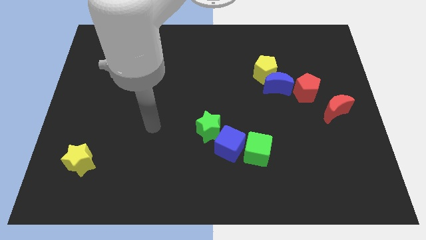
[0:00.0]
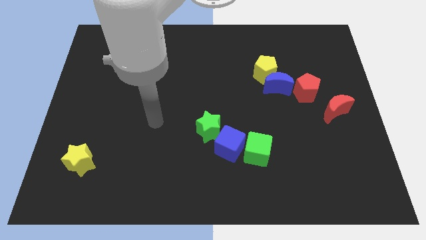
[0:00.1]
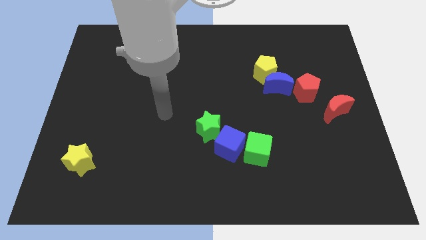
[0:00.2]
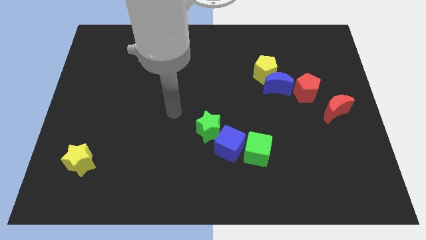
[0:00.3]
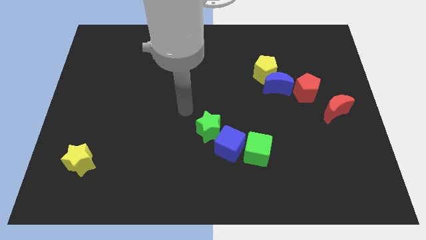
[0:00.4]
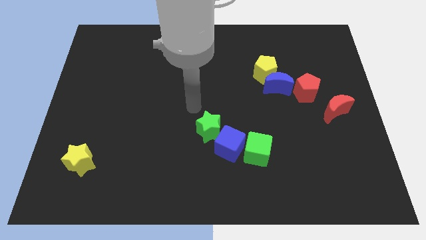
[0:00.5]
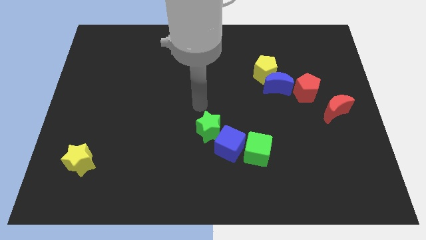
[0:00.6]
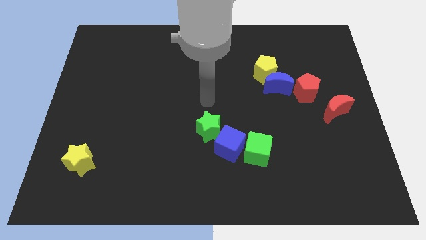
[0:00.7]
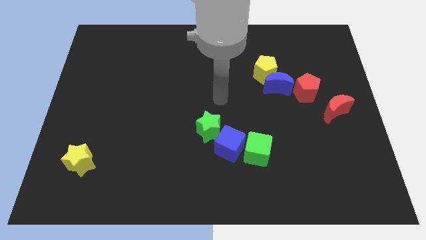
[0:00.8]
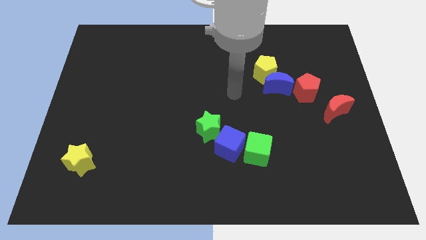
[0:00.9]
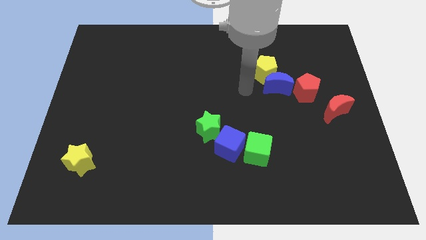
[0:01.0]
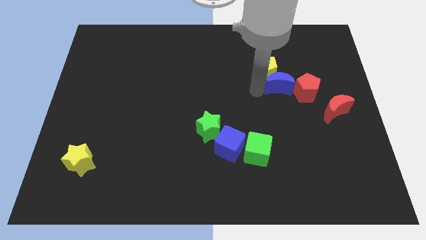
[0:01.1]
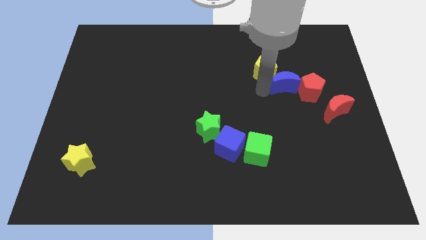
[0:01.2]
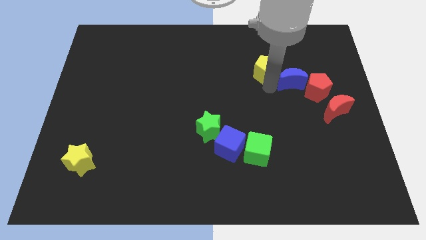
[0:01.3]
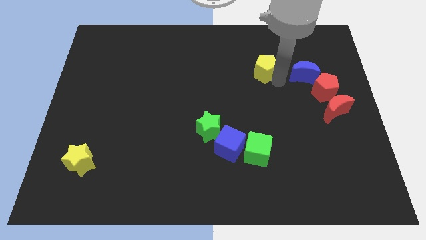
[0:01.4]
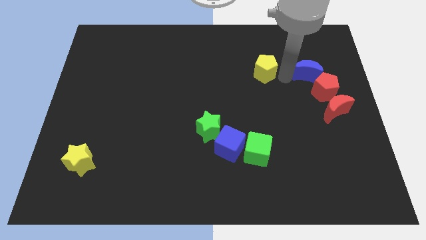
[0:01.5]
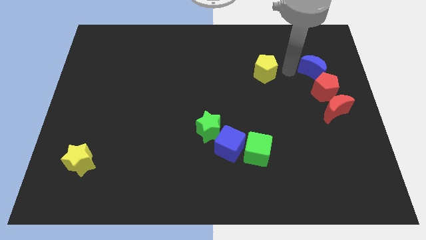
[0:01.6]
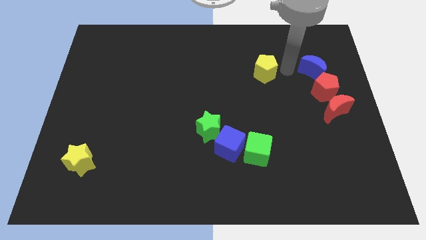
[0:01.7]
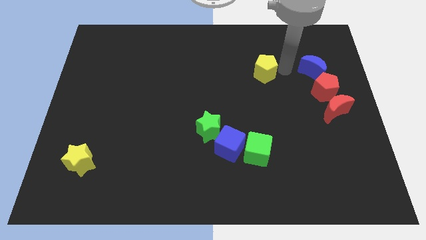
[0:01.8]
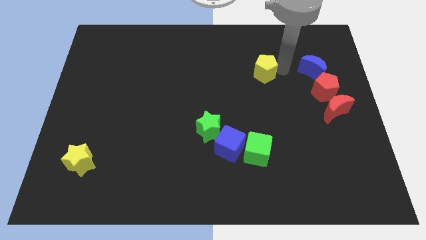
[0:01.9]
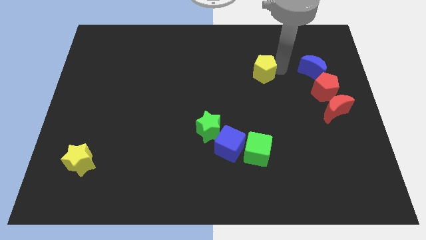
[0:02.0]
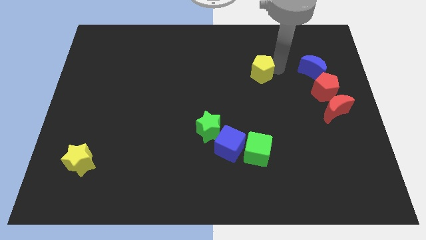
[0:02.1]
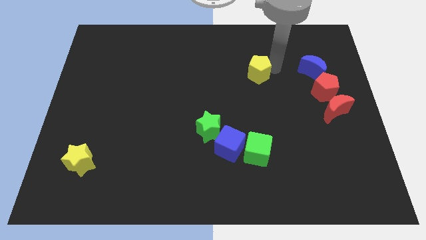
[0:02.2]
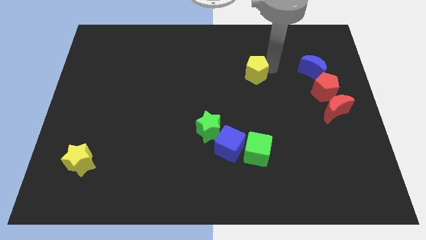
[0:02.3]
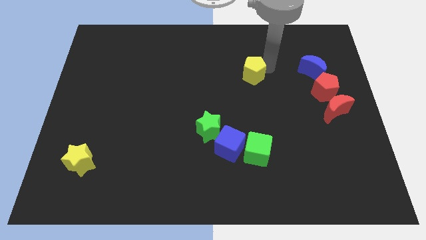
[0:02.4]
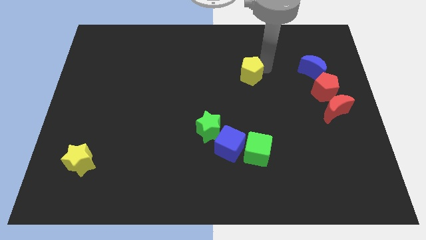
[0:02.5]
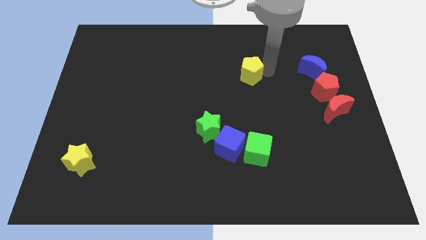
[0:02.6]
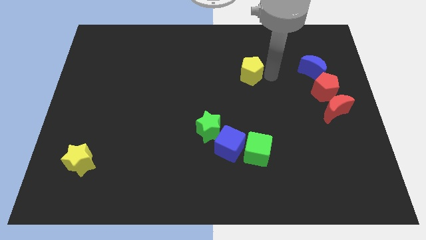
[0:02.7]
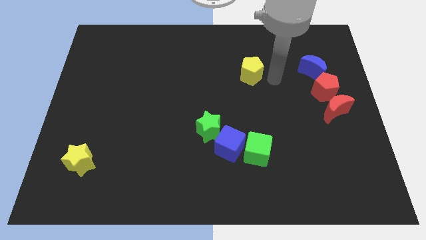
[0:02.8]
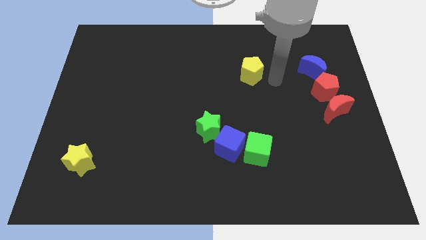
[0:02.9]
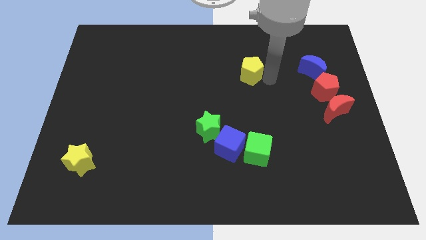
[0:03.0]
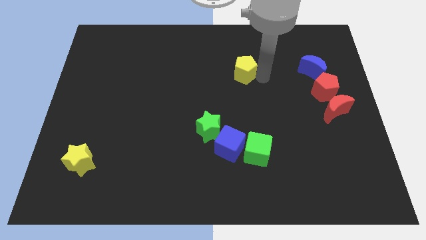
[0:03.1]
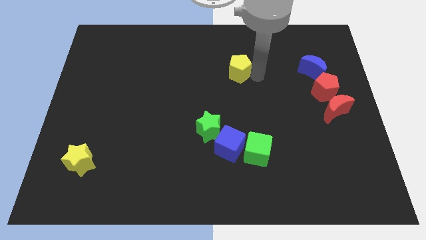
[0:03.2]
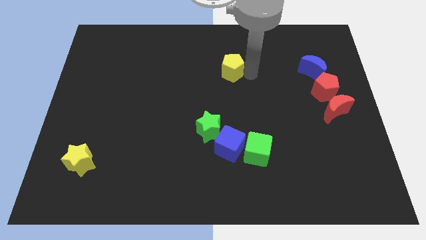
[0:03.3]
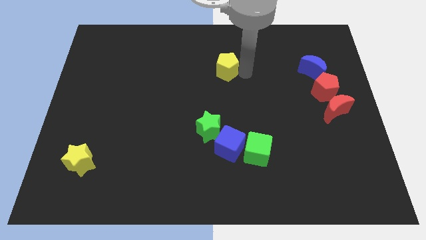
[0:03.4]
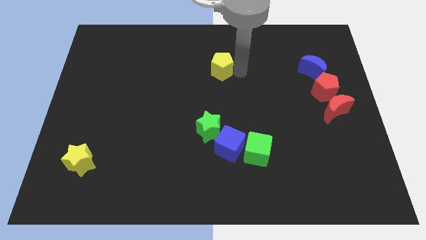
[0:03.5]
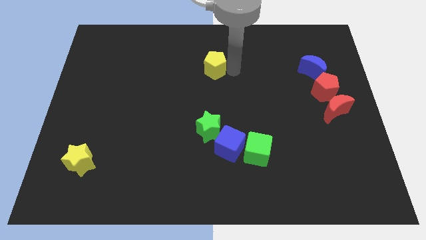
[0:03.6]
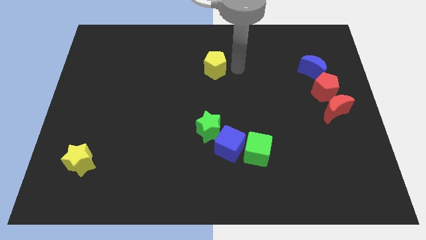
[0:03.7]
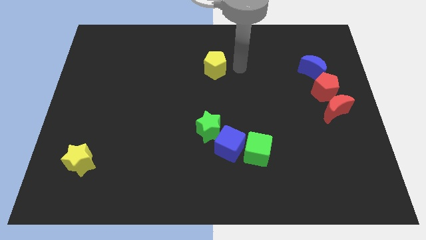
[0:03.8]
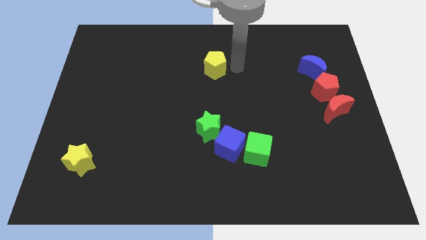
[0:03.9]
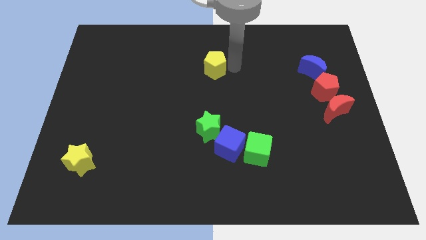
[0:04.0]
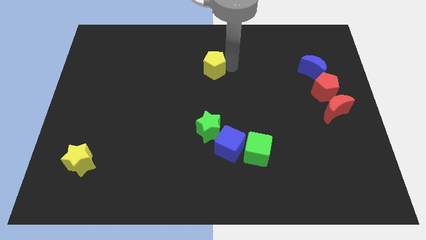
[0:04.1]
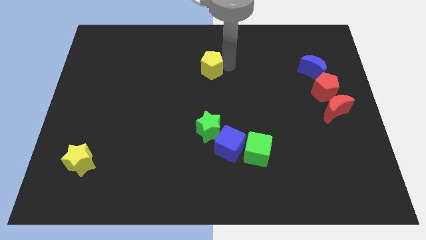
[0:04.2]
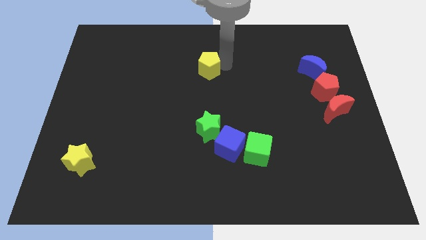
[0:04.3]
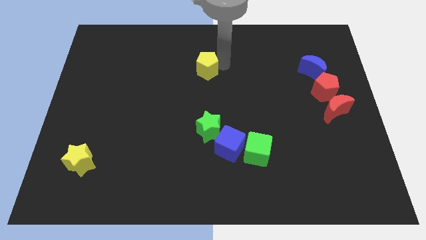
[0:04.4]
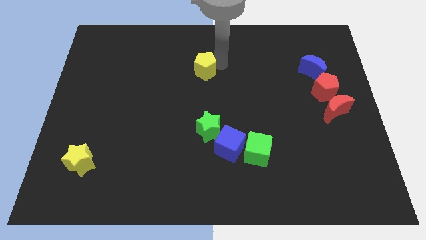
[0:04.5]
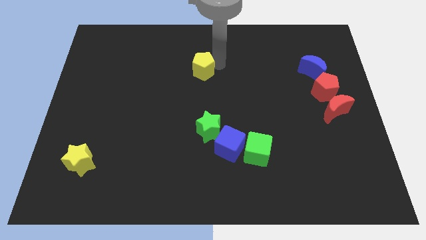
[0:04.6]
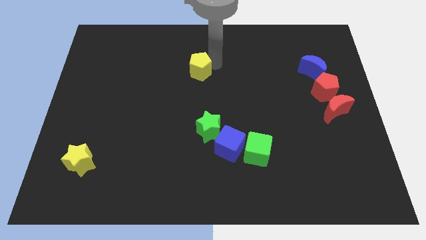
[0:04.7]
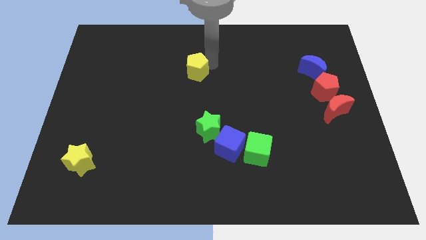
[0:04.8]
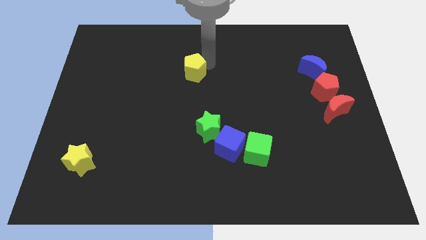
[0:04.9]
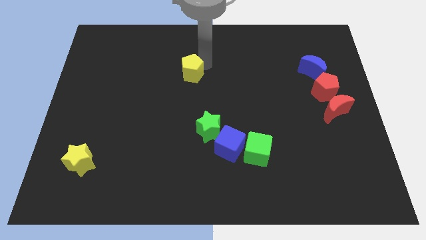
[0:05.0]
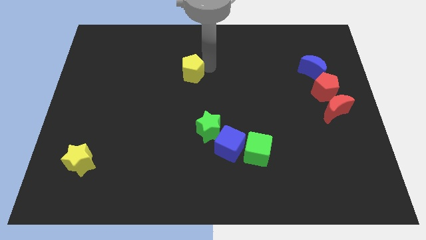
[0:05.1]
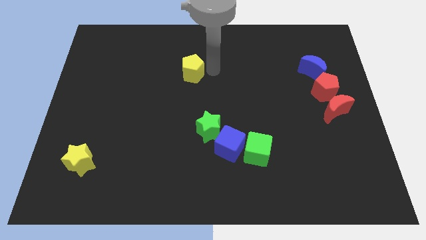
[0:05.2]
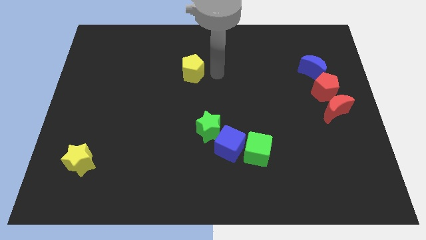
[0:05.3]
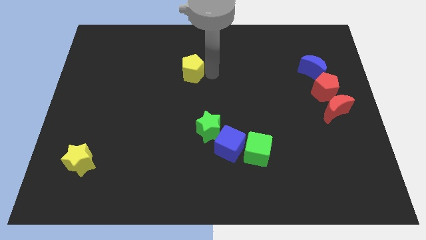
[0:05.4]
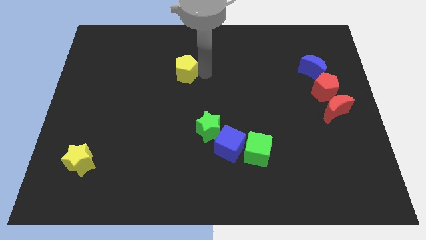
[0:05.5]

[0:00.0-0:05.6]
slide the yellow pentagon to the left

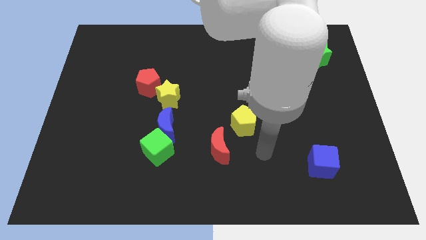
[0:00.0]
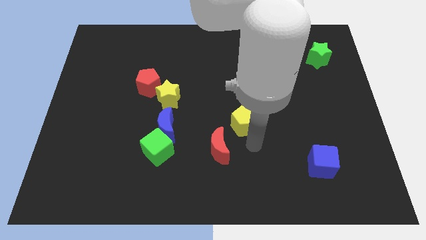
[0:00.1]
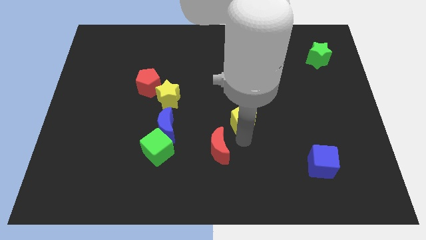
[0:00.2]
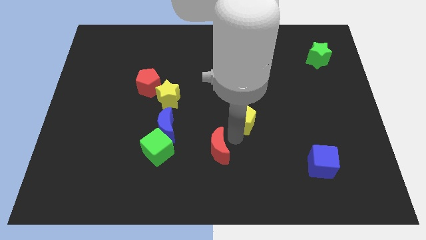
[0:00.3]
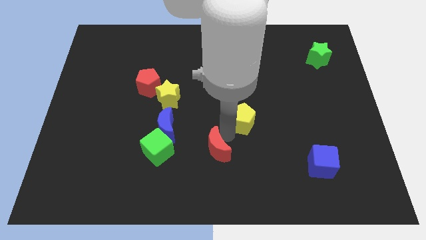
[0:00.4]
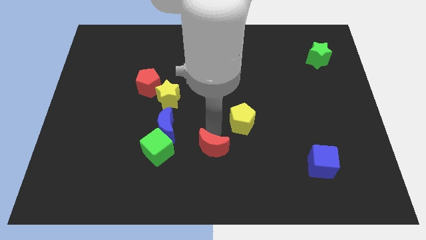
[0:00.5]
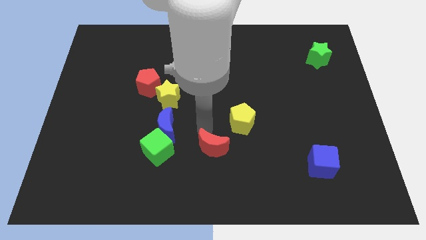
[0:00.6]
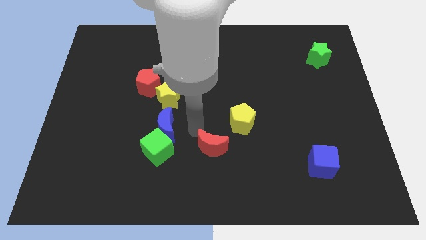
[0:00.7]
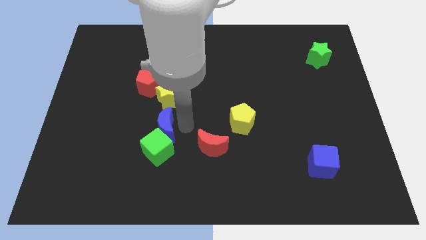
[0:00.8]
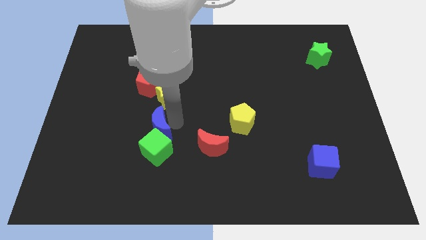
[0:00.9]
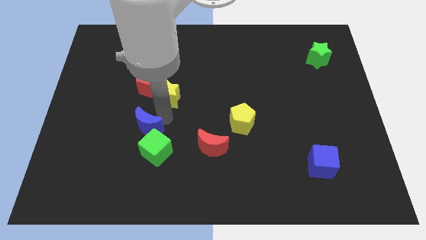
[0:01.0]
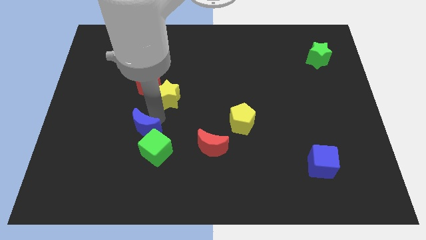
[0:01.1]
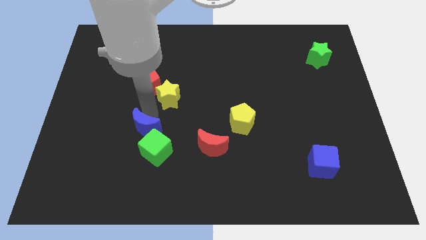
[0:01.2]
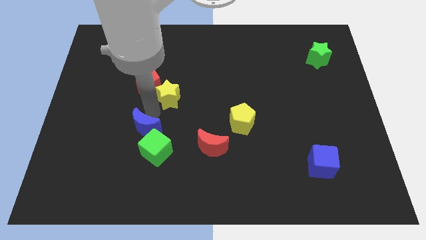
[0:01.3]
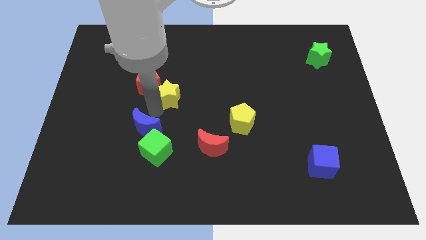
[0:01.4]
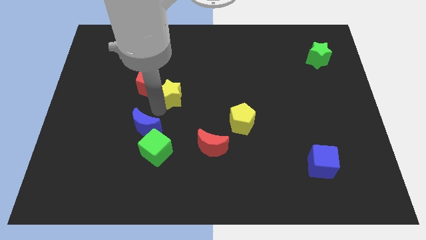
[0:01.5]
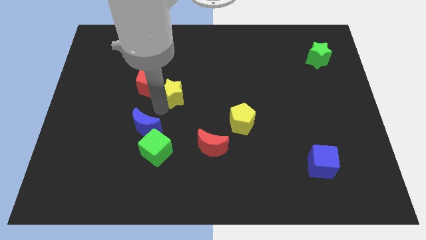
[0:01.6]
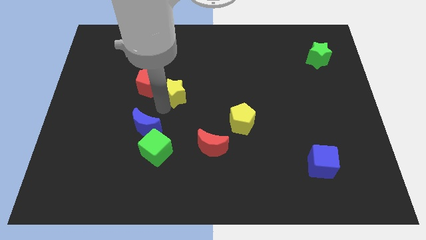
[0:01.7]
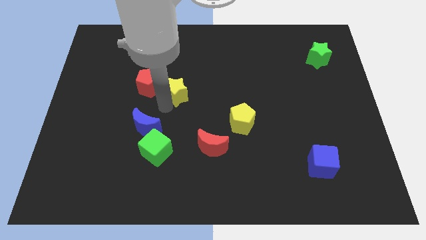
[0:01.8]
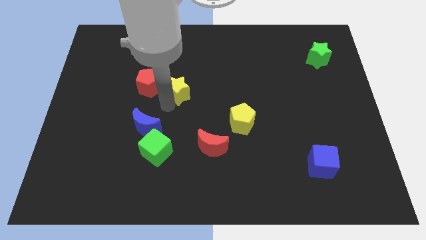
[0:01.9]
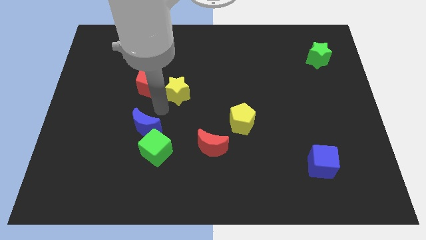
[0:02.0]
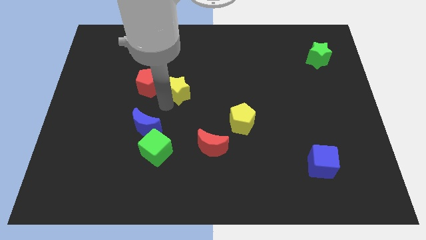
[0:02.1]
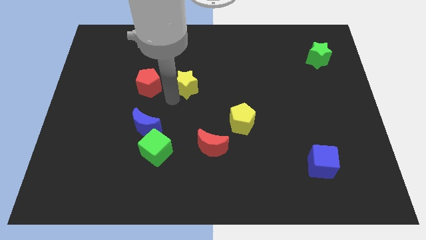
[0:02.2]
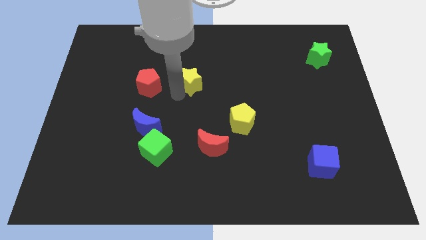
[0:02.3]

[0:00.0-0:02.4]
slide the yellow star slightly upwards and then right
